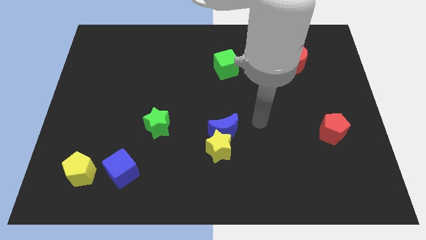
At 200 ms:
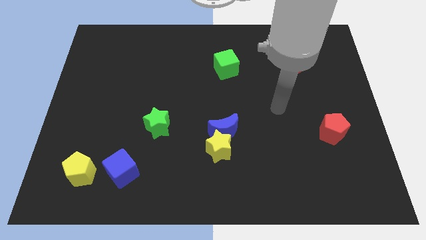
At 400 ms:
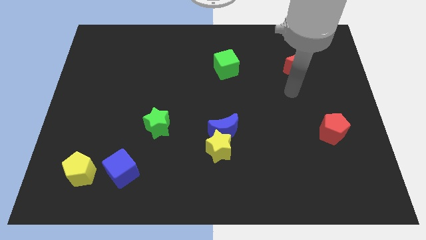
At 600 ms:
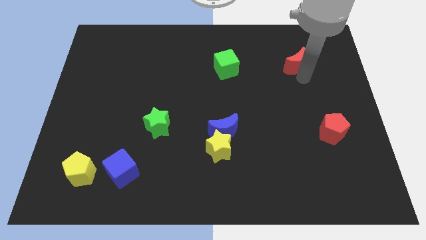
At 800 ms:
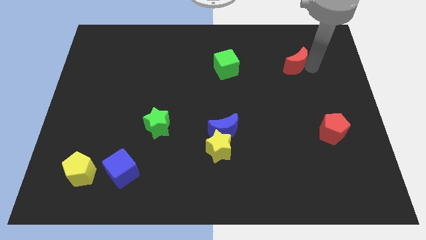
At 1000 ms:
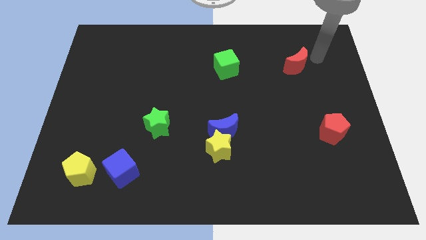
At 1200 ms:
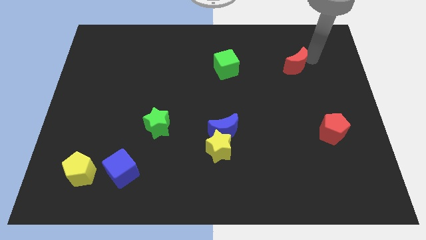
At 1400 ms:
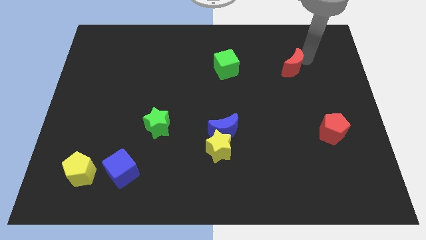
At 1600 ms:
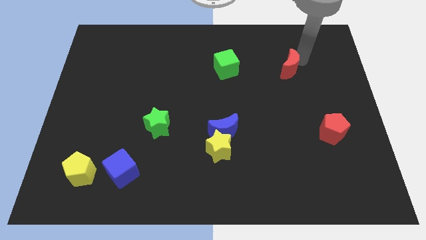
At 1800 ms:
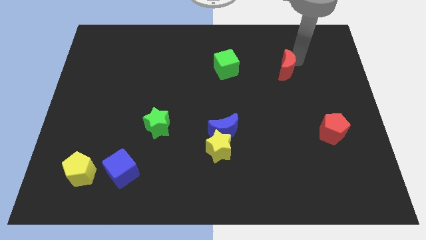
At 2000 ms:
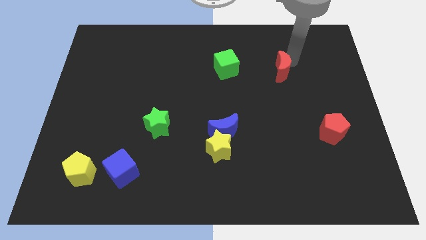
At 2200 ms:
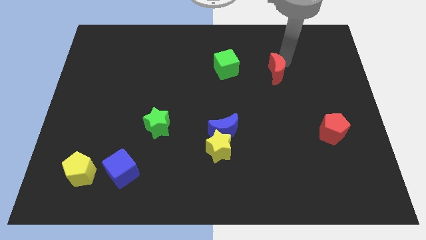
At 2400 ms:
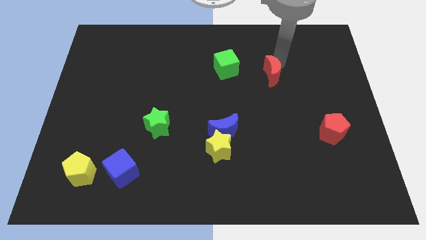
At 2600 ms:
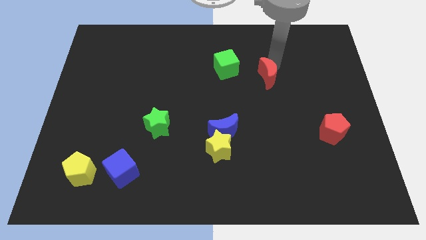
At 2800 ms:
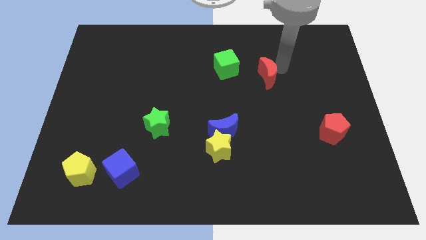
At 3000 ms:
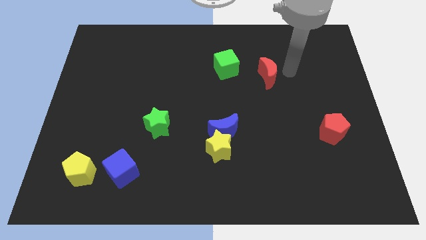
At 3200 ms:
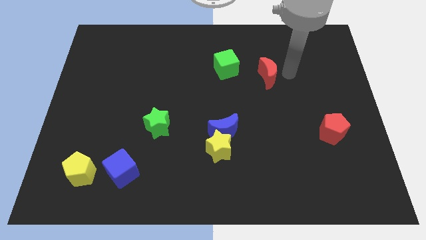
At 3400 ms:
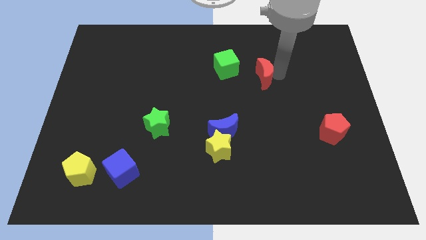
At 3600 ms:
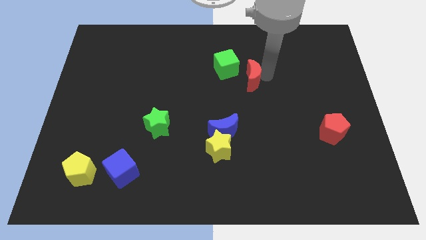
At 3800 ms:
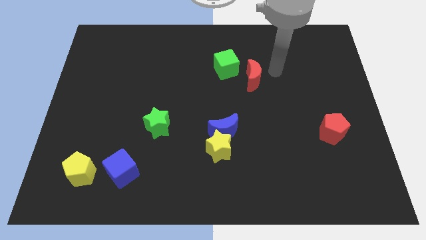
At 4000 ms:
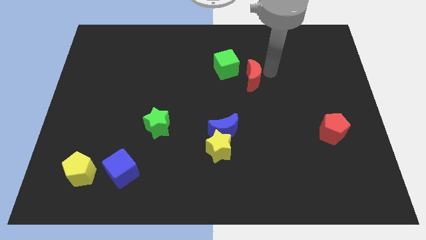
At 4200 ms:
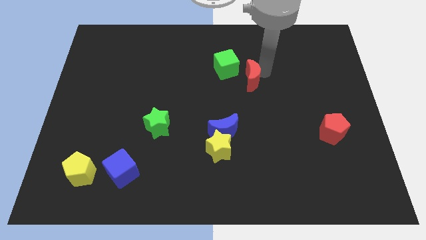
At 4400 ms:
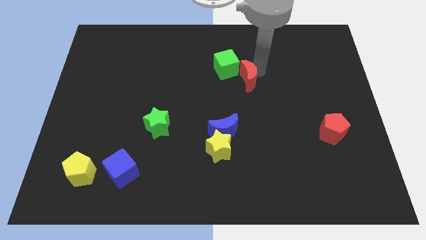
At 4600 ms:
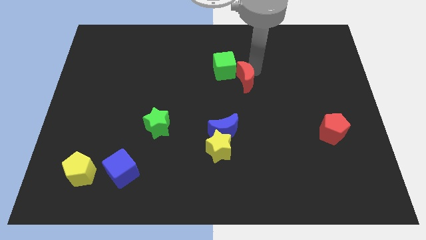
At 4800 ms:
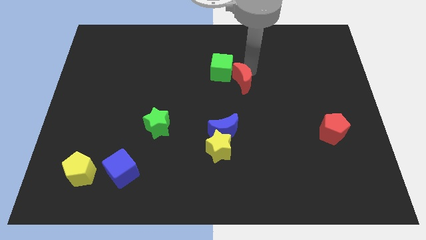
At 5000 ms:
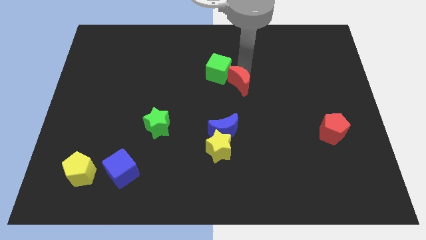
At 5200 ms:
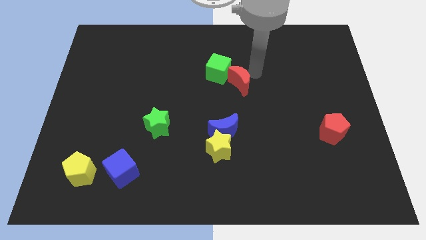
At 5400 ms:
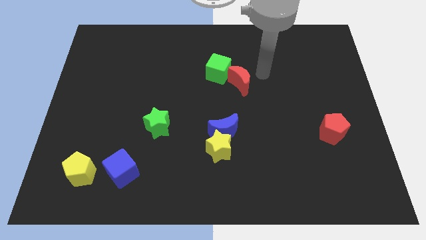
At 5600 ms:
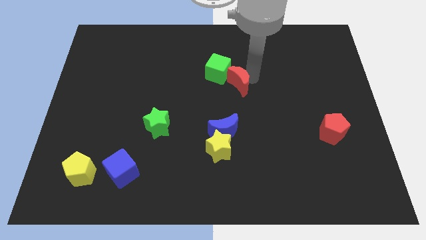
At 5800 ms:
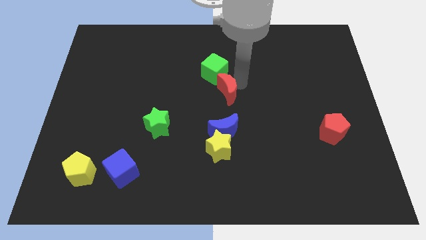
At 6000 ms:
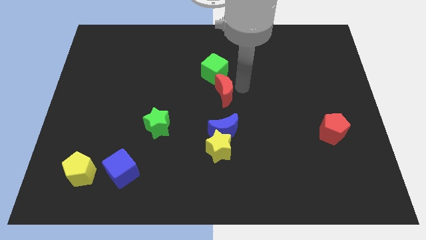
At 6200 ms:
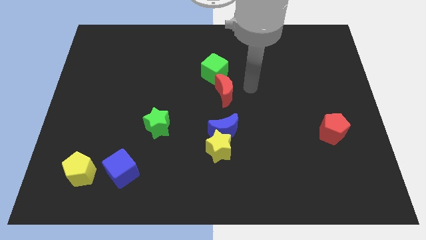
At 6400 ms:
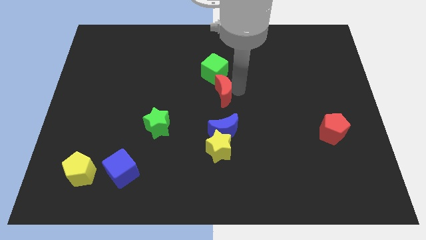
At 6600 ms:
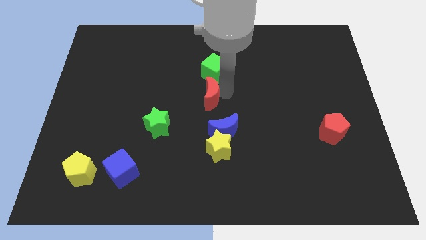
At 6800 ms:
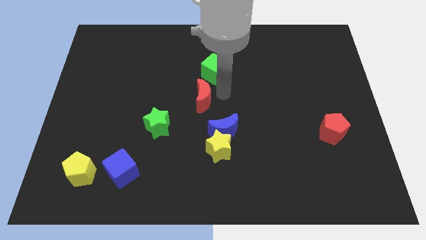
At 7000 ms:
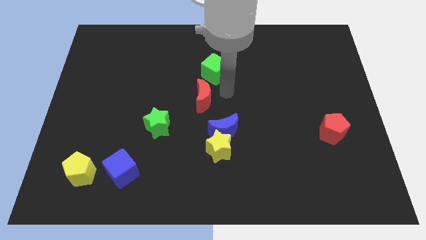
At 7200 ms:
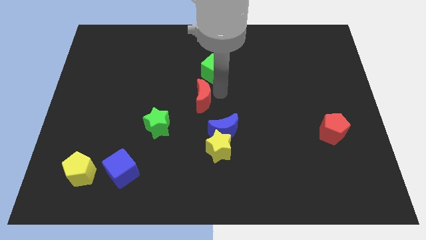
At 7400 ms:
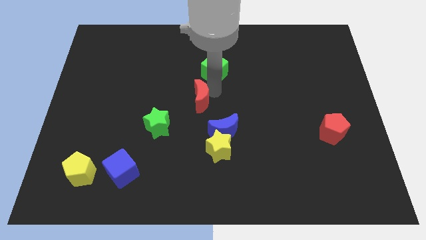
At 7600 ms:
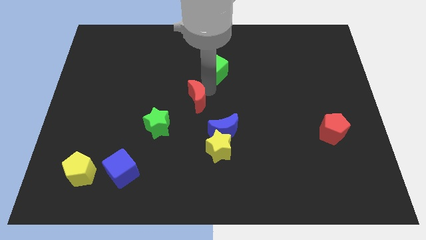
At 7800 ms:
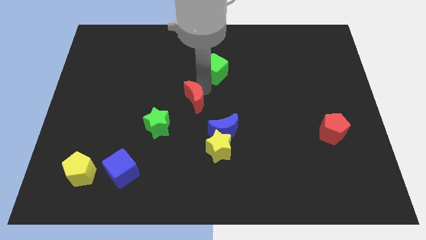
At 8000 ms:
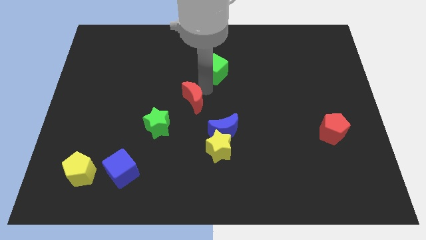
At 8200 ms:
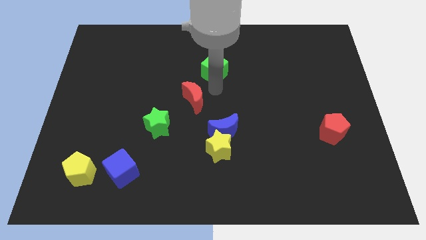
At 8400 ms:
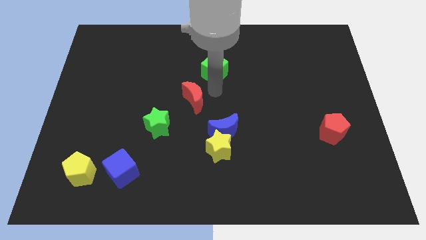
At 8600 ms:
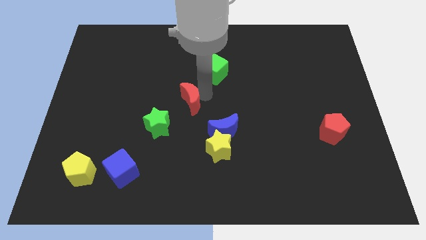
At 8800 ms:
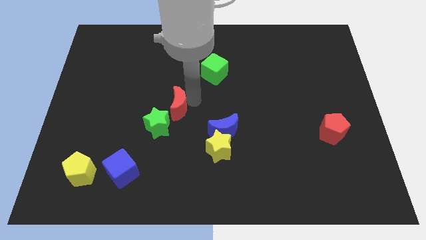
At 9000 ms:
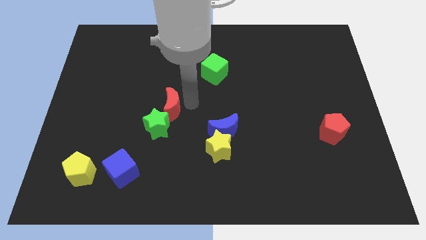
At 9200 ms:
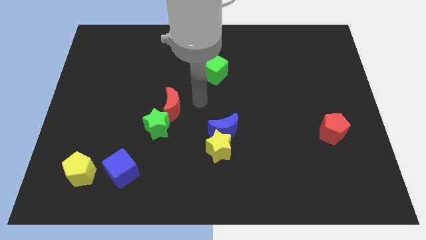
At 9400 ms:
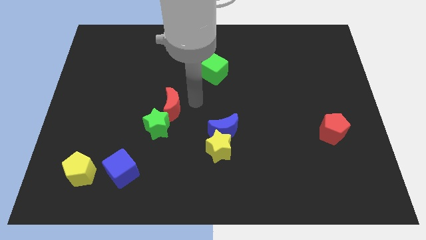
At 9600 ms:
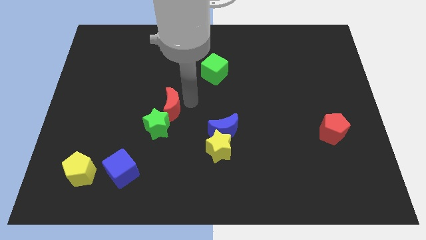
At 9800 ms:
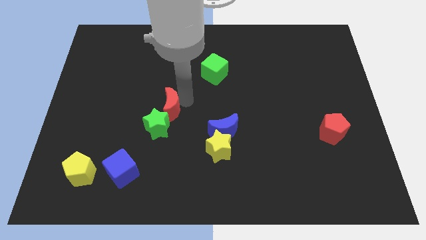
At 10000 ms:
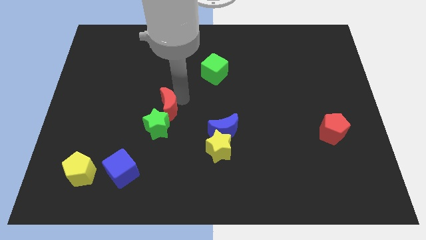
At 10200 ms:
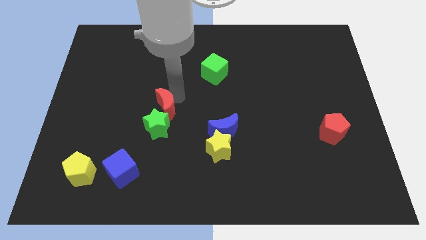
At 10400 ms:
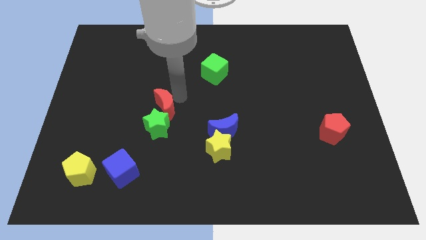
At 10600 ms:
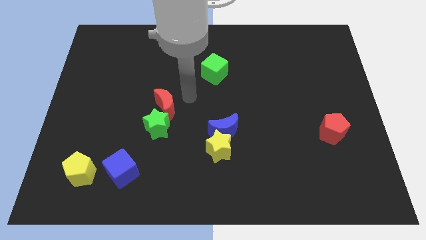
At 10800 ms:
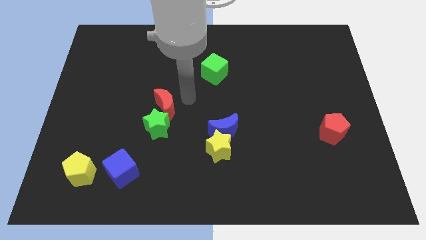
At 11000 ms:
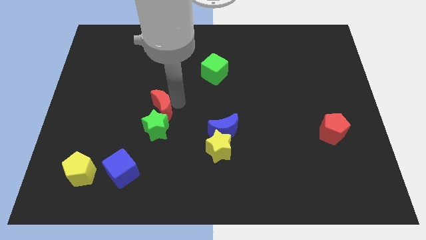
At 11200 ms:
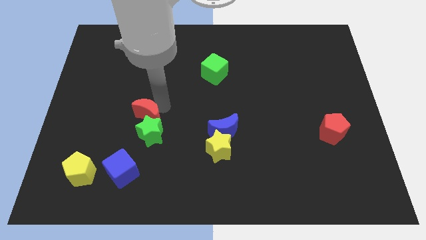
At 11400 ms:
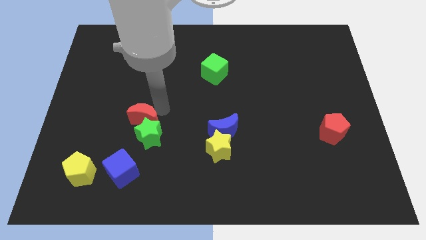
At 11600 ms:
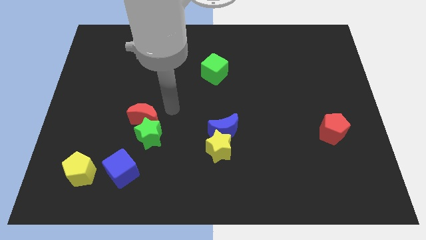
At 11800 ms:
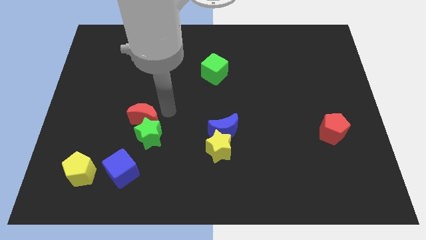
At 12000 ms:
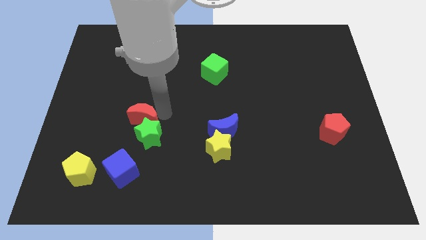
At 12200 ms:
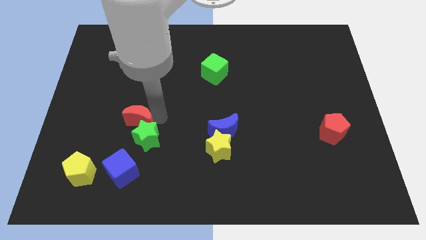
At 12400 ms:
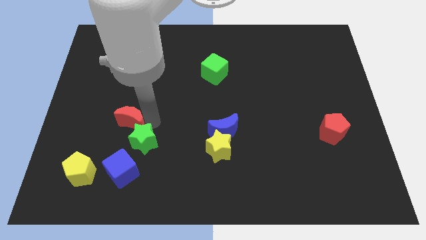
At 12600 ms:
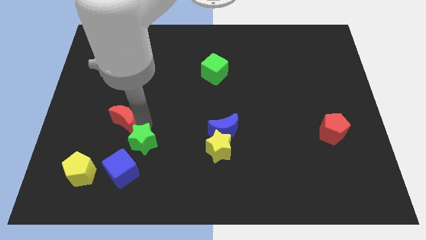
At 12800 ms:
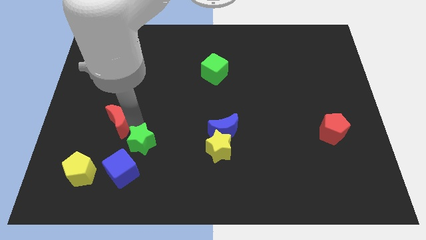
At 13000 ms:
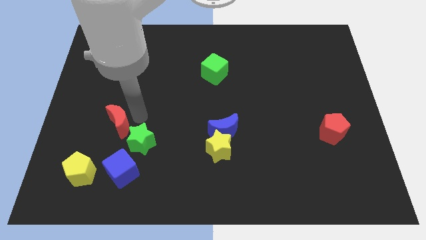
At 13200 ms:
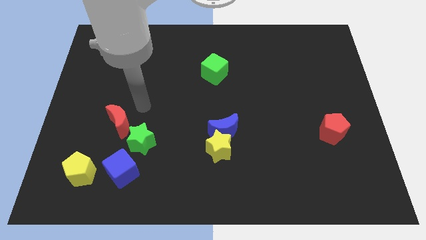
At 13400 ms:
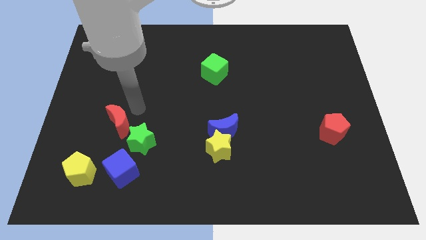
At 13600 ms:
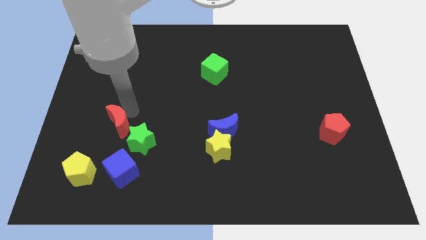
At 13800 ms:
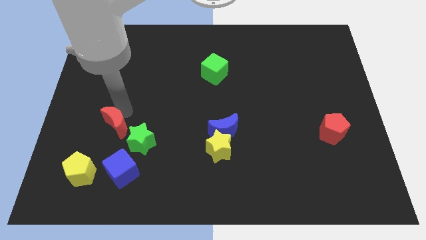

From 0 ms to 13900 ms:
push the red moon left of the green star
